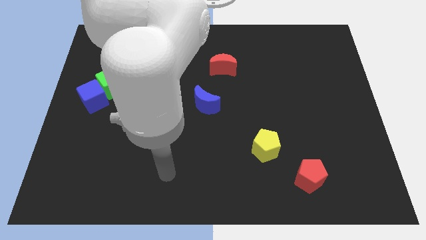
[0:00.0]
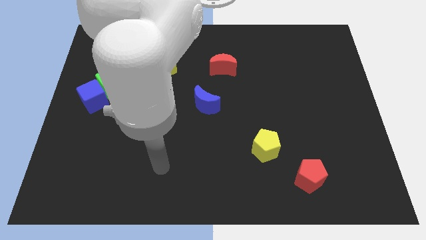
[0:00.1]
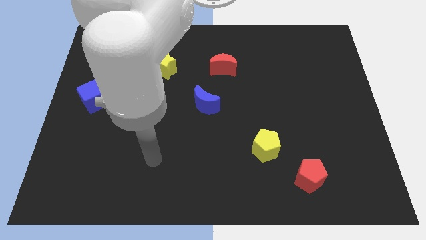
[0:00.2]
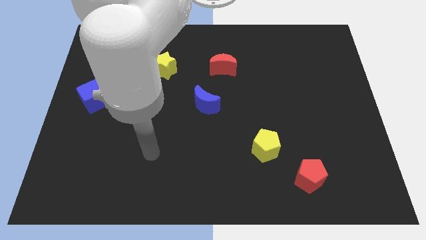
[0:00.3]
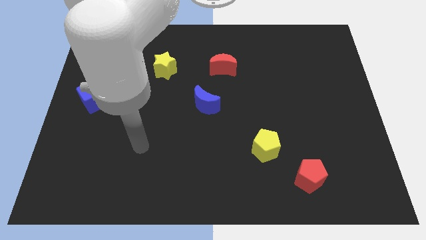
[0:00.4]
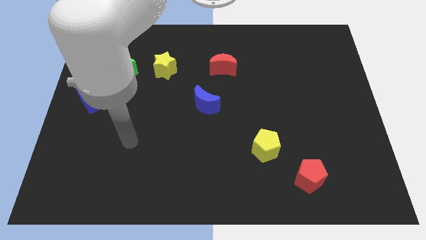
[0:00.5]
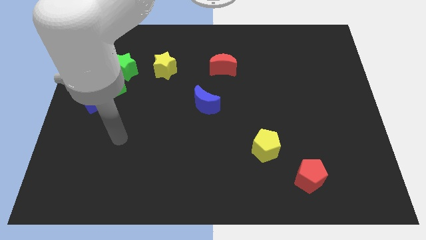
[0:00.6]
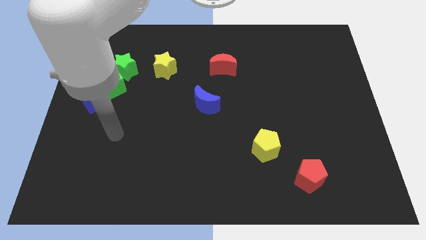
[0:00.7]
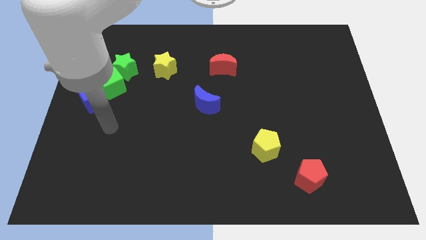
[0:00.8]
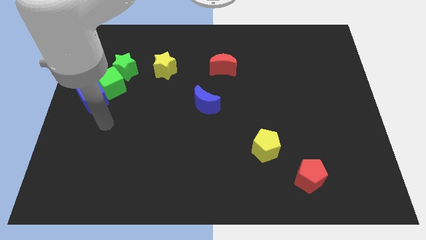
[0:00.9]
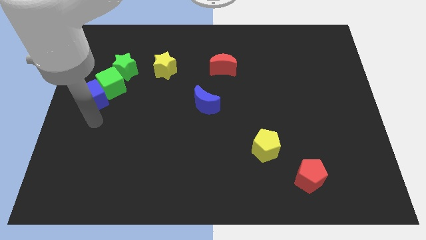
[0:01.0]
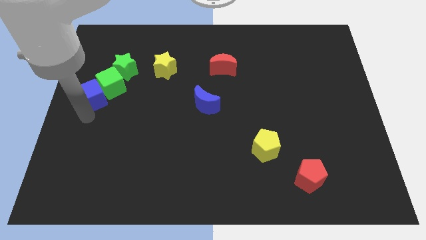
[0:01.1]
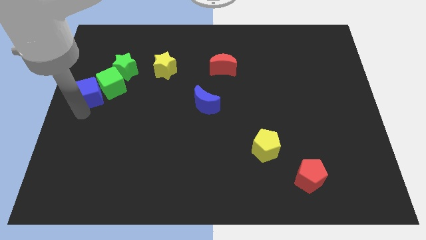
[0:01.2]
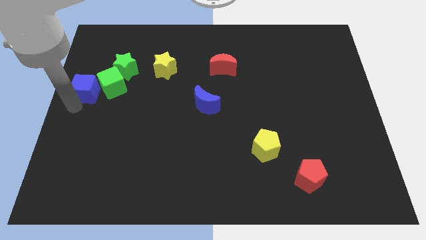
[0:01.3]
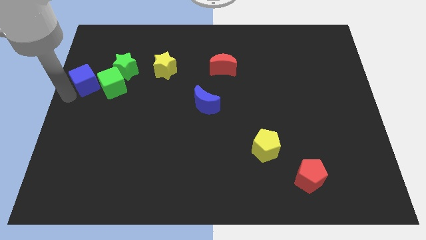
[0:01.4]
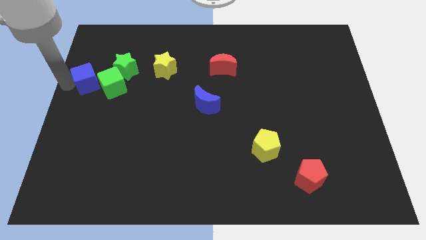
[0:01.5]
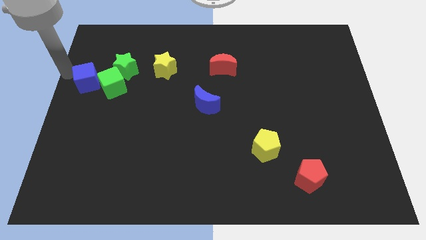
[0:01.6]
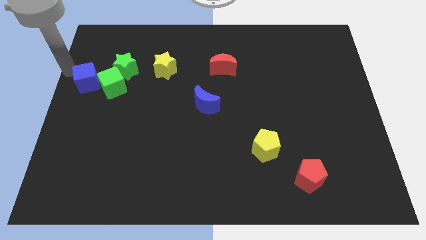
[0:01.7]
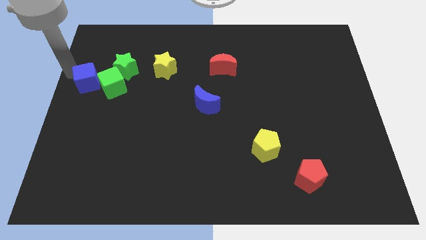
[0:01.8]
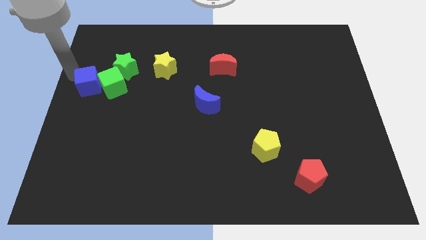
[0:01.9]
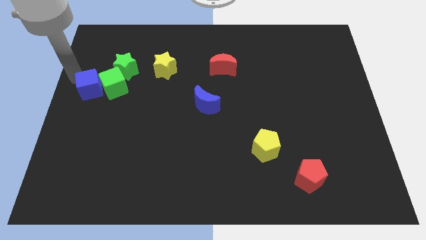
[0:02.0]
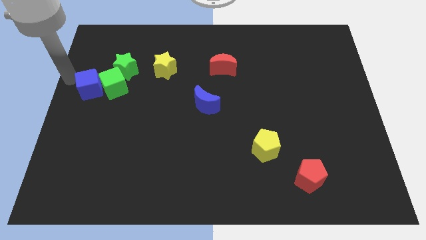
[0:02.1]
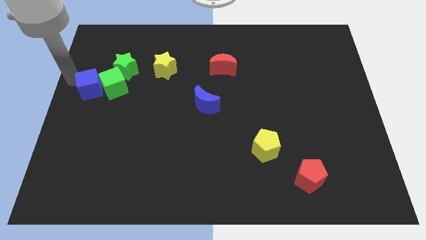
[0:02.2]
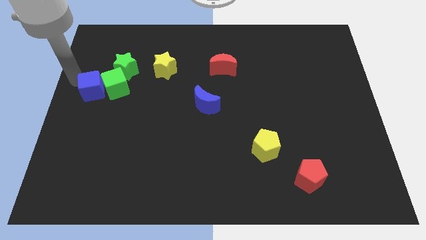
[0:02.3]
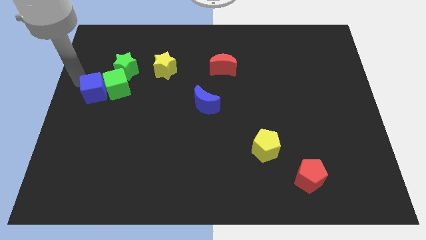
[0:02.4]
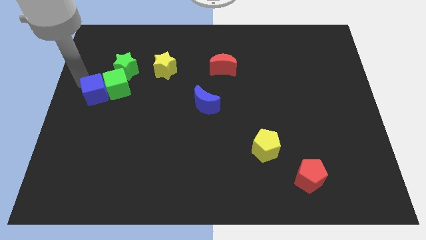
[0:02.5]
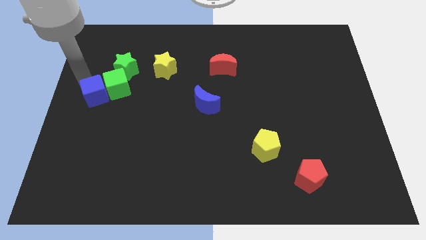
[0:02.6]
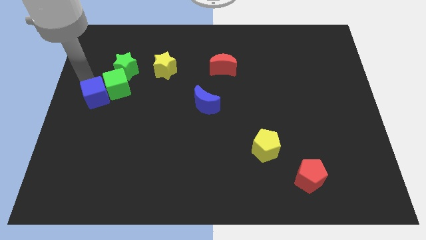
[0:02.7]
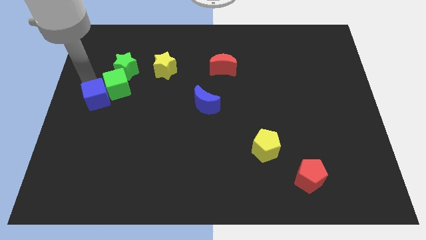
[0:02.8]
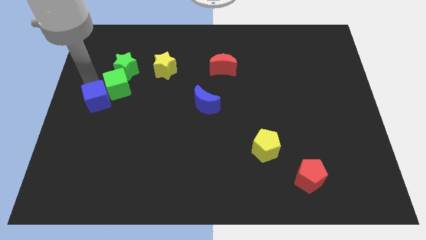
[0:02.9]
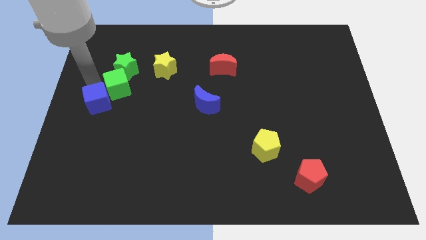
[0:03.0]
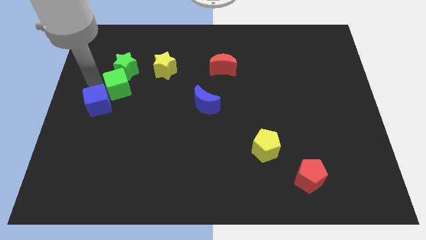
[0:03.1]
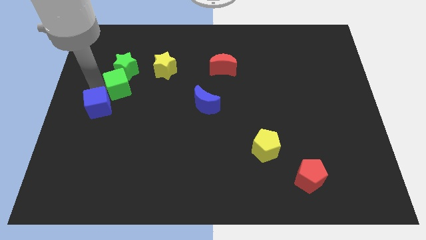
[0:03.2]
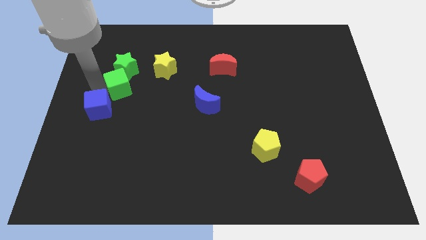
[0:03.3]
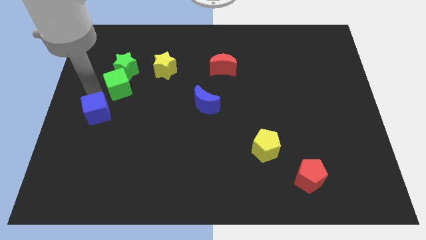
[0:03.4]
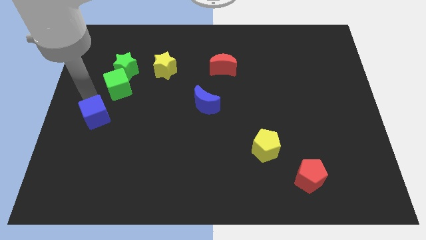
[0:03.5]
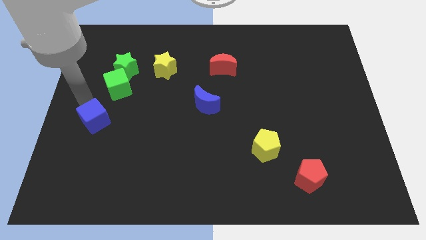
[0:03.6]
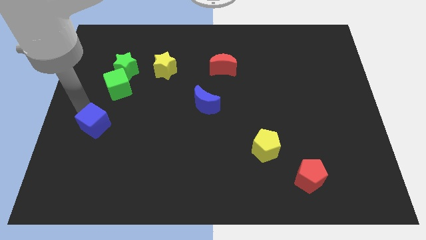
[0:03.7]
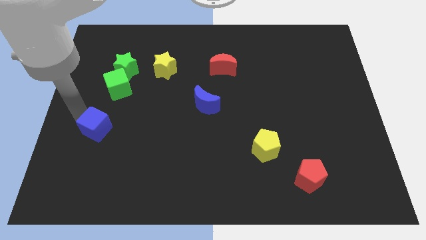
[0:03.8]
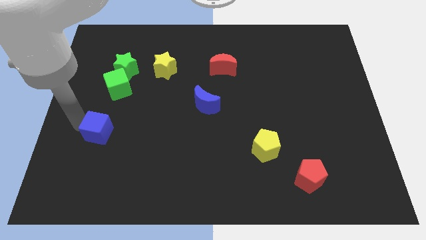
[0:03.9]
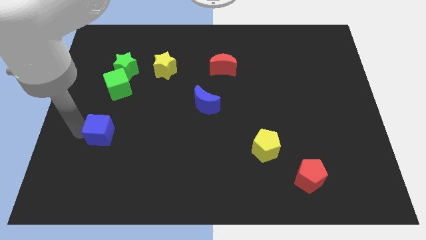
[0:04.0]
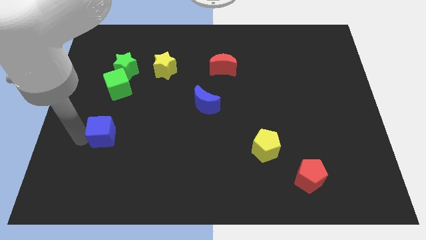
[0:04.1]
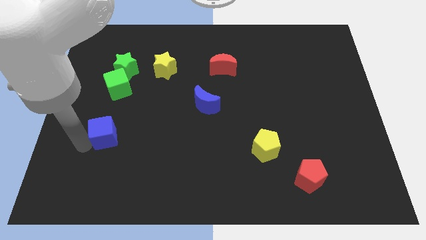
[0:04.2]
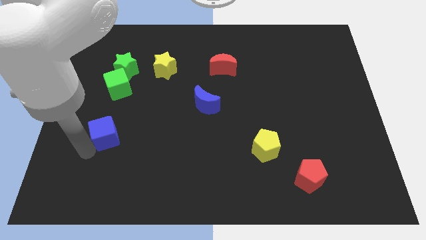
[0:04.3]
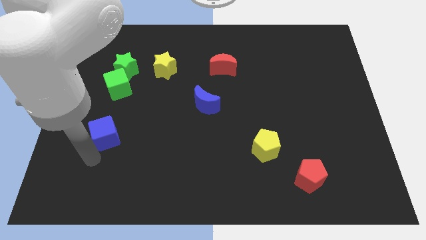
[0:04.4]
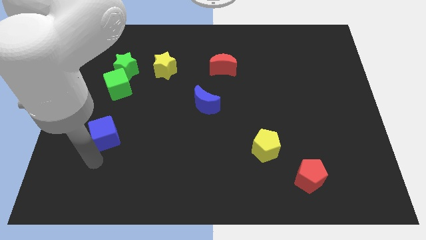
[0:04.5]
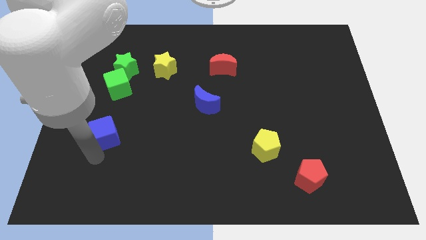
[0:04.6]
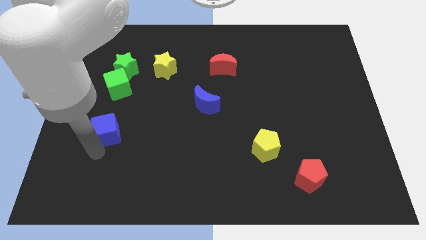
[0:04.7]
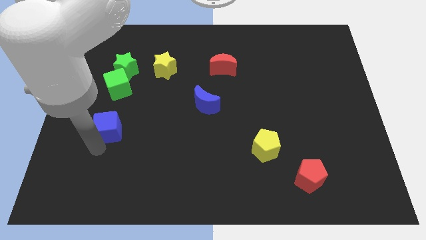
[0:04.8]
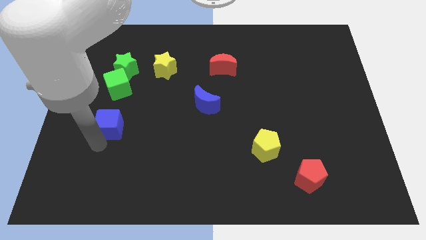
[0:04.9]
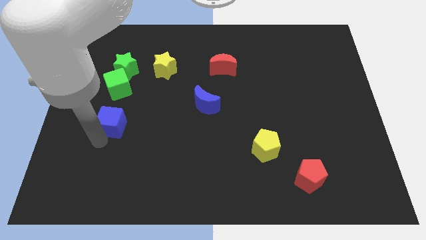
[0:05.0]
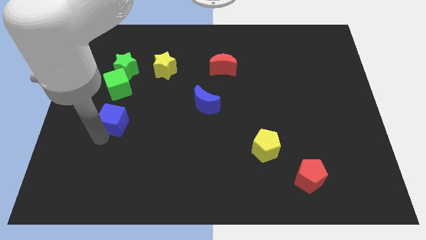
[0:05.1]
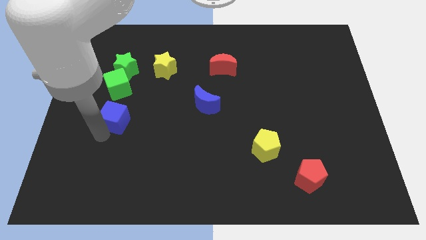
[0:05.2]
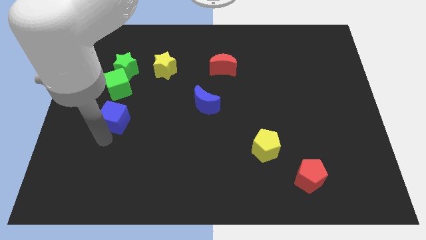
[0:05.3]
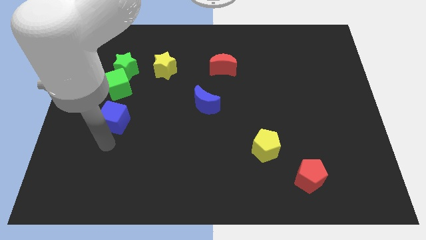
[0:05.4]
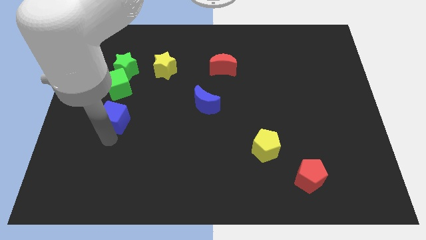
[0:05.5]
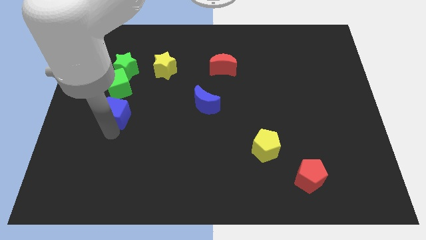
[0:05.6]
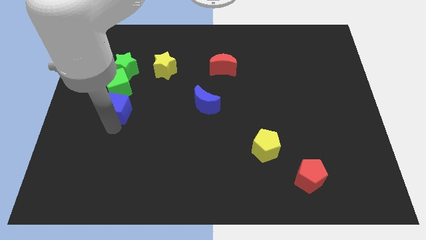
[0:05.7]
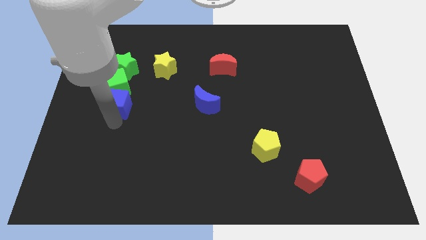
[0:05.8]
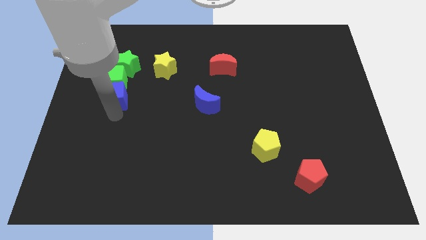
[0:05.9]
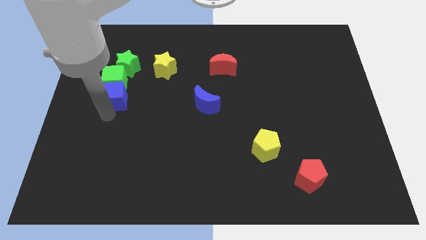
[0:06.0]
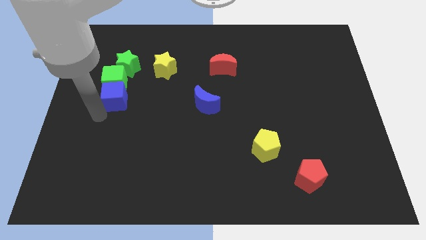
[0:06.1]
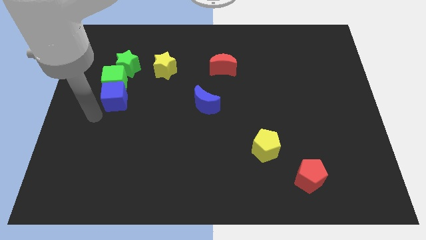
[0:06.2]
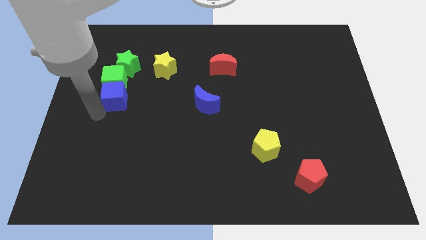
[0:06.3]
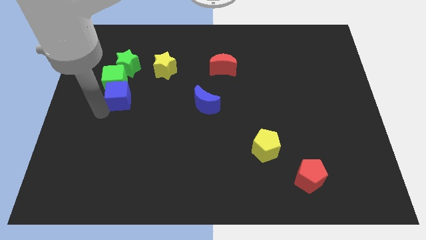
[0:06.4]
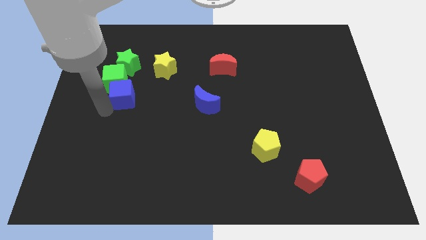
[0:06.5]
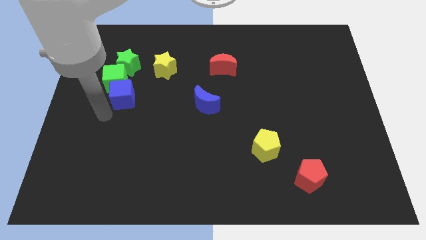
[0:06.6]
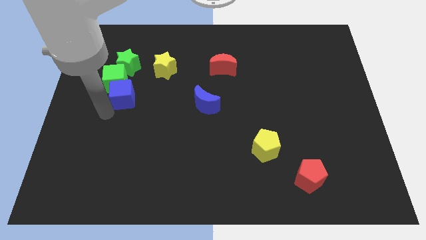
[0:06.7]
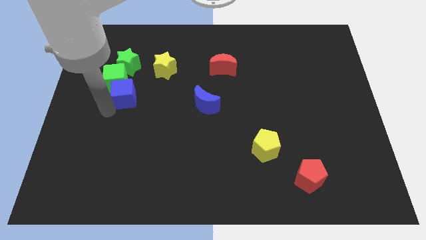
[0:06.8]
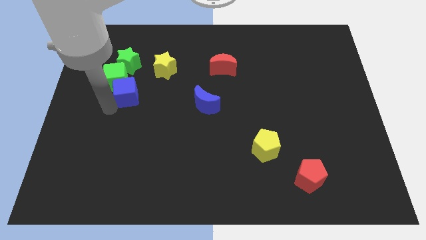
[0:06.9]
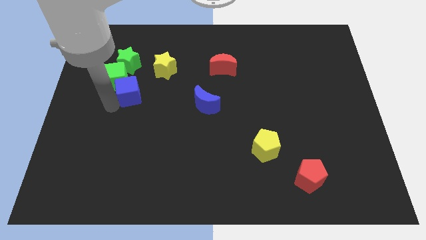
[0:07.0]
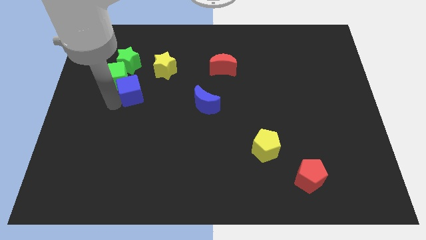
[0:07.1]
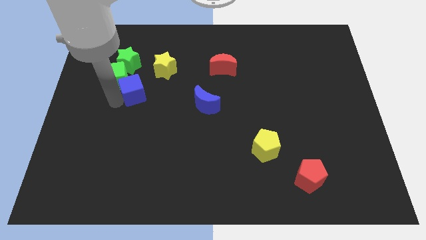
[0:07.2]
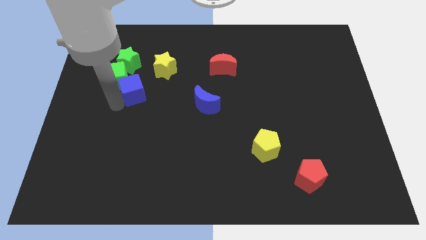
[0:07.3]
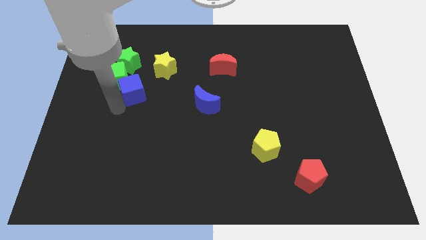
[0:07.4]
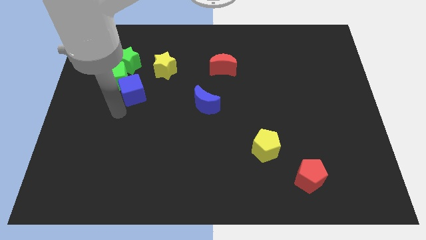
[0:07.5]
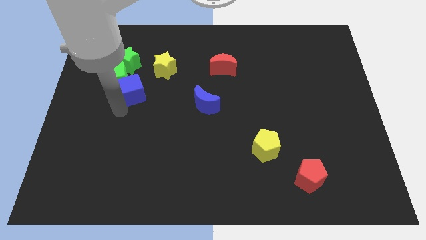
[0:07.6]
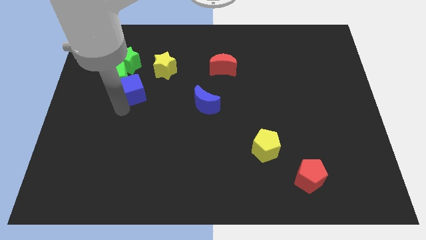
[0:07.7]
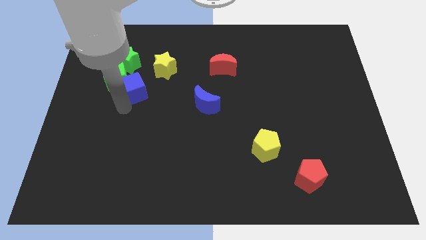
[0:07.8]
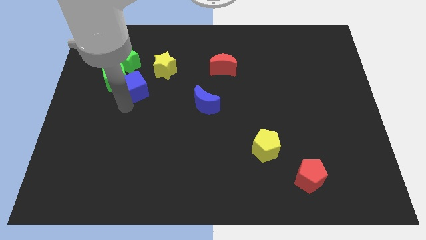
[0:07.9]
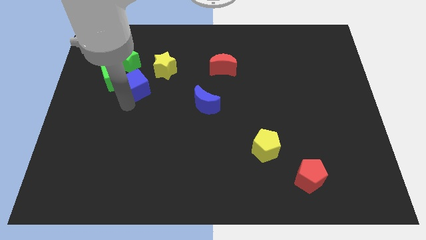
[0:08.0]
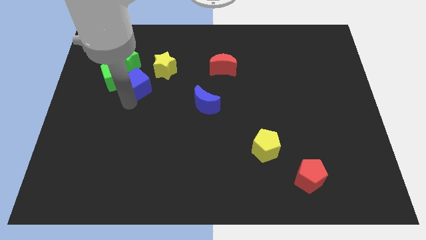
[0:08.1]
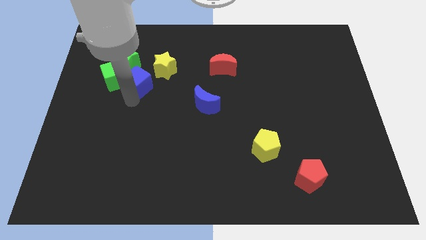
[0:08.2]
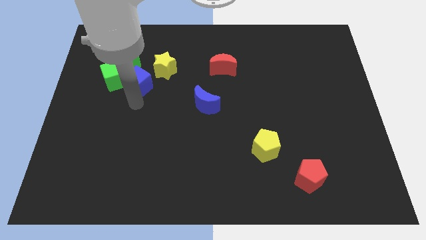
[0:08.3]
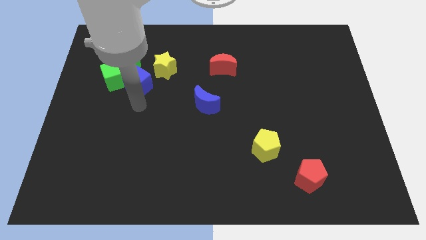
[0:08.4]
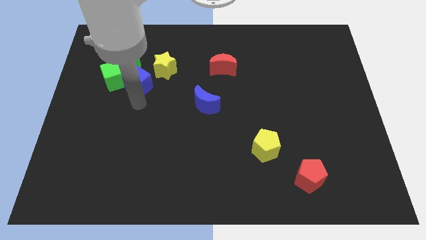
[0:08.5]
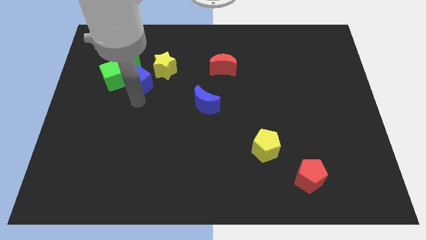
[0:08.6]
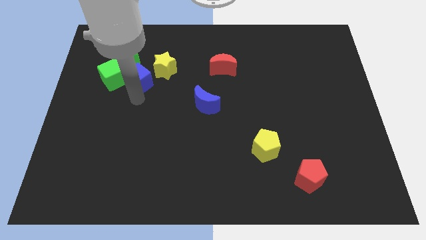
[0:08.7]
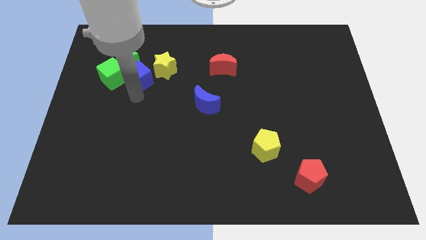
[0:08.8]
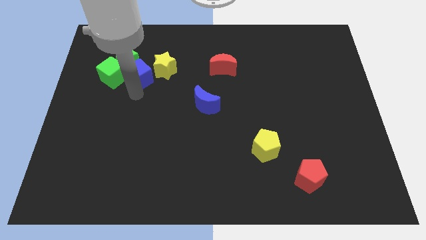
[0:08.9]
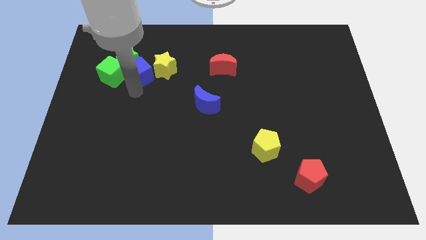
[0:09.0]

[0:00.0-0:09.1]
slide the blue cube to the top right of the green cube
